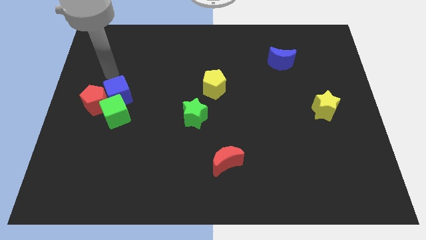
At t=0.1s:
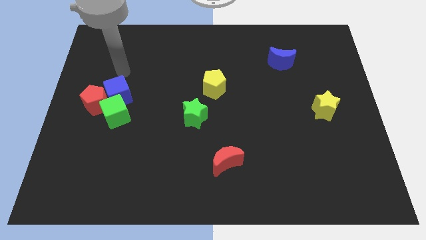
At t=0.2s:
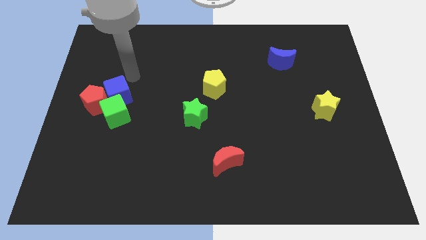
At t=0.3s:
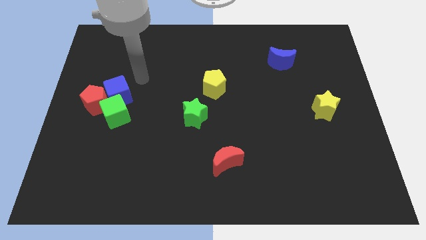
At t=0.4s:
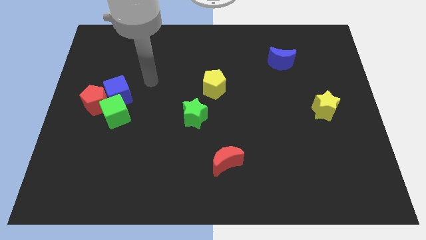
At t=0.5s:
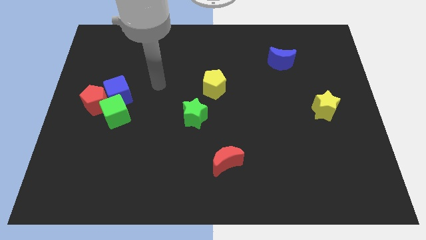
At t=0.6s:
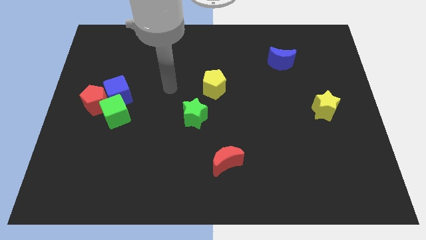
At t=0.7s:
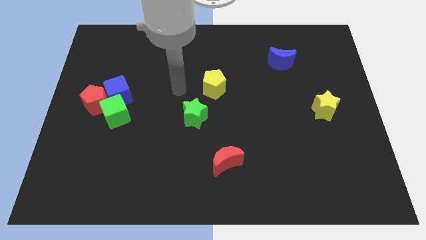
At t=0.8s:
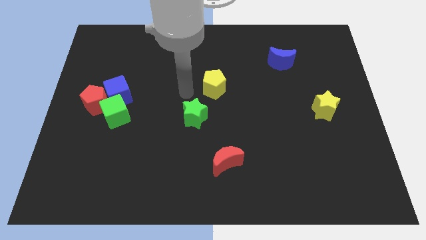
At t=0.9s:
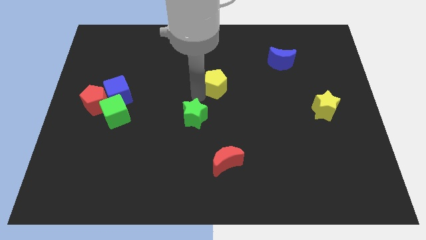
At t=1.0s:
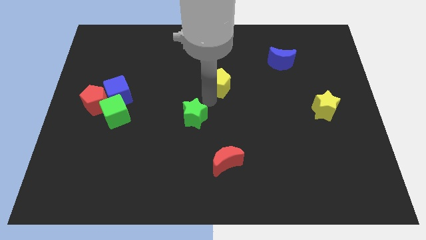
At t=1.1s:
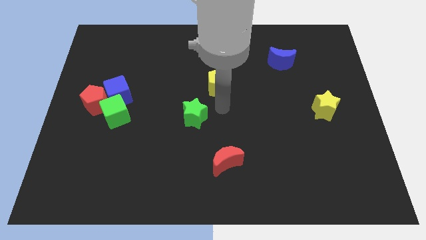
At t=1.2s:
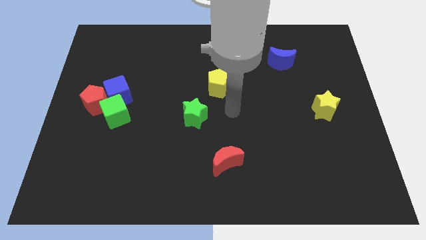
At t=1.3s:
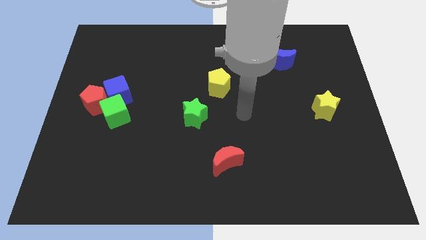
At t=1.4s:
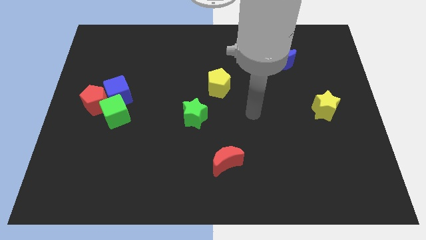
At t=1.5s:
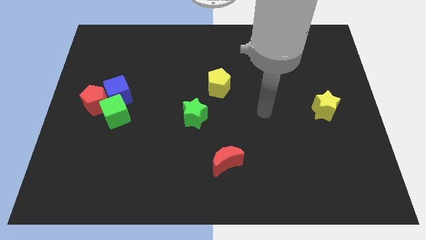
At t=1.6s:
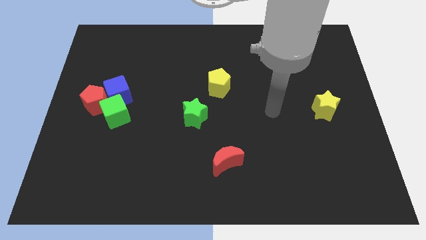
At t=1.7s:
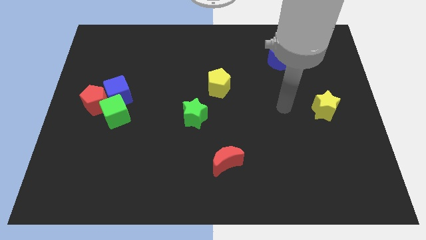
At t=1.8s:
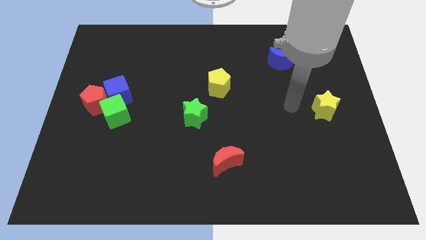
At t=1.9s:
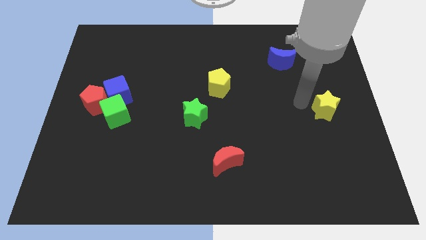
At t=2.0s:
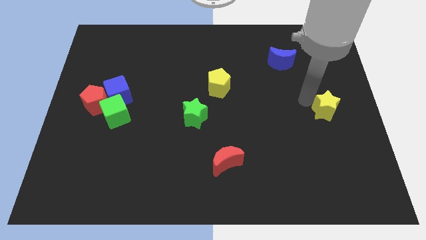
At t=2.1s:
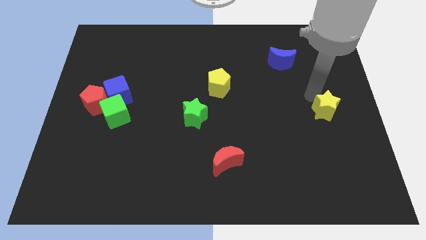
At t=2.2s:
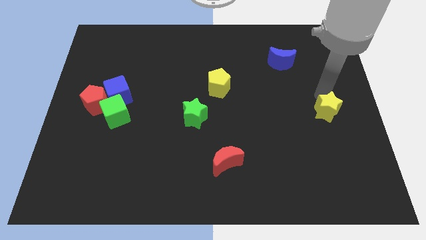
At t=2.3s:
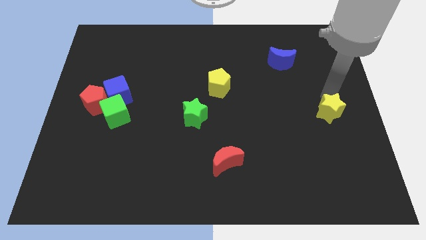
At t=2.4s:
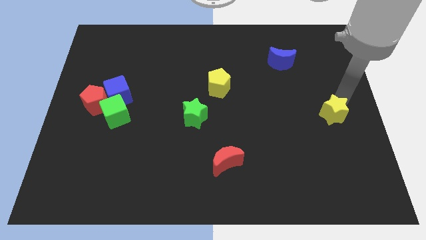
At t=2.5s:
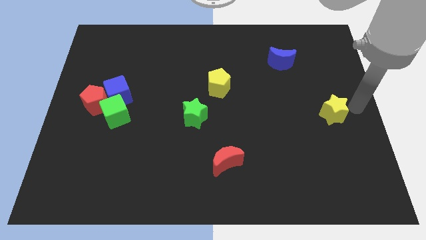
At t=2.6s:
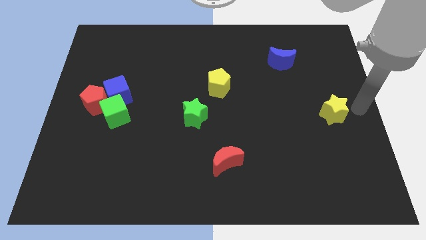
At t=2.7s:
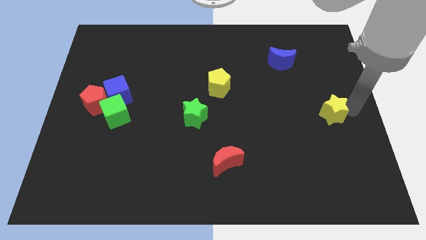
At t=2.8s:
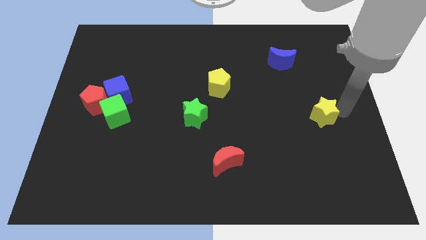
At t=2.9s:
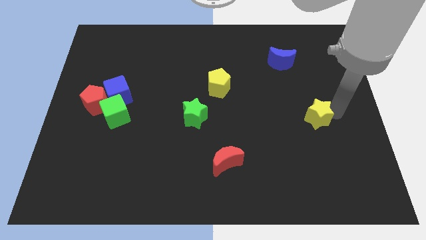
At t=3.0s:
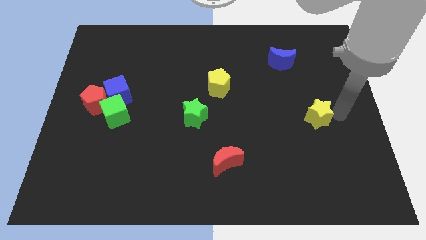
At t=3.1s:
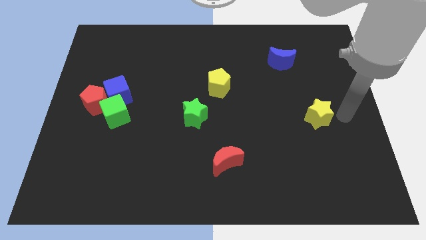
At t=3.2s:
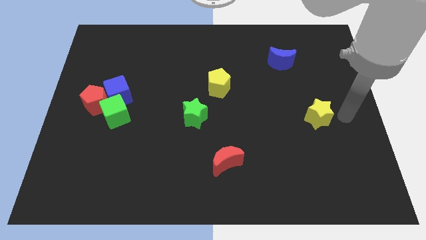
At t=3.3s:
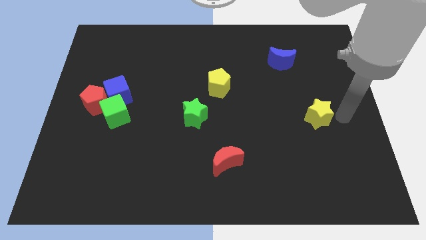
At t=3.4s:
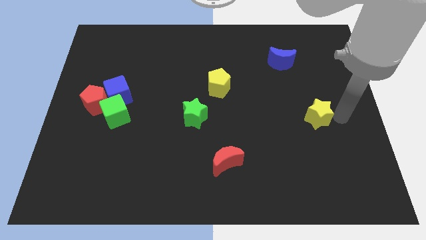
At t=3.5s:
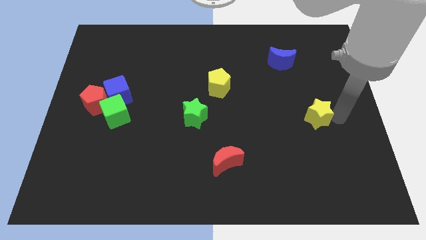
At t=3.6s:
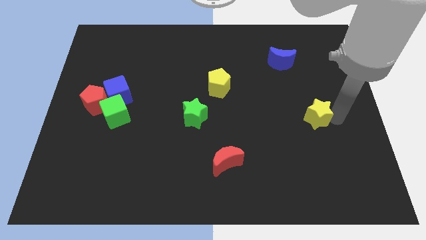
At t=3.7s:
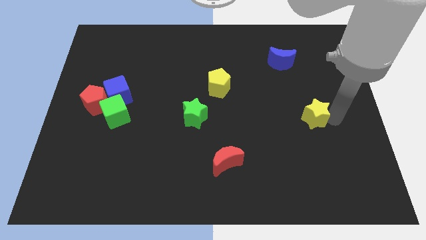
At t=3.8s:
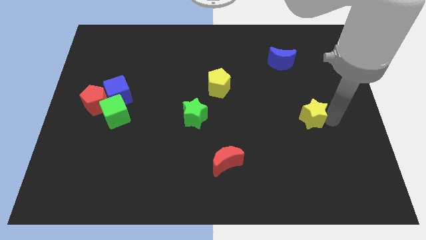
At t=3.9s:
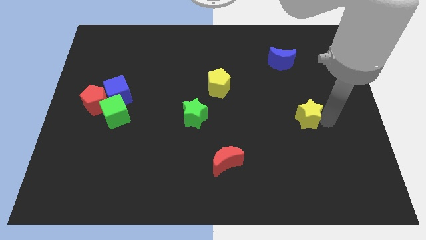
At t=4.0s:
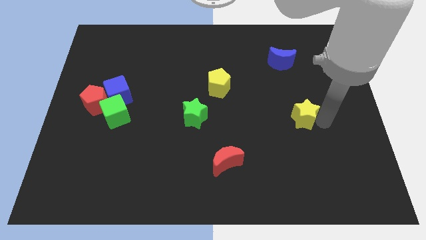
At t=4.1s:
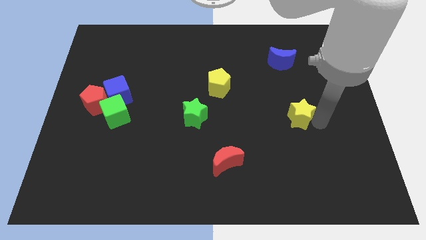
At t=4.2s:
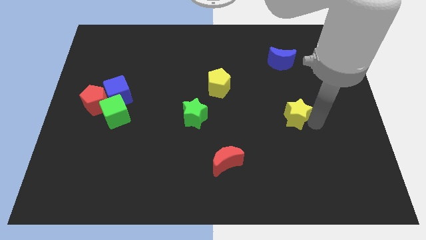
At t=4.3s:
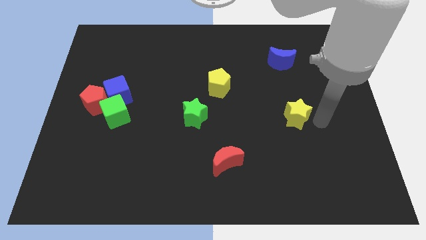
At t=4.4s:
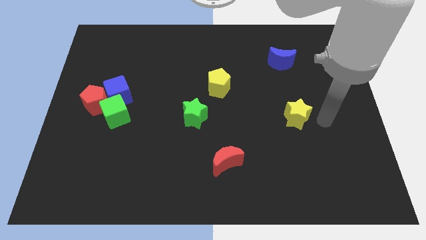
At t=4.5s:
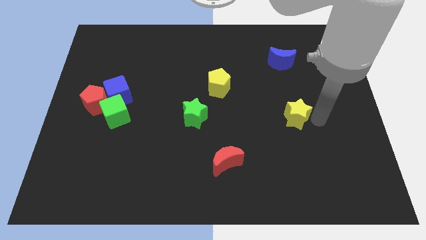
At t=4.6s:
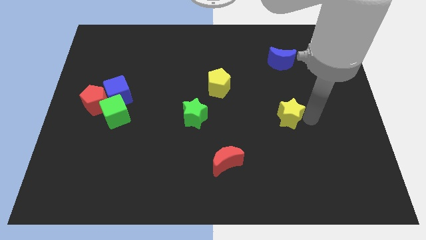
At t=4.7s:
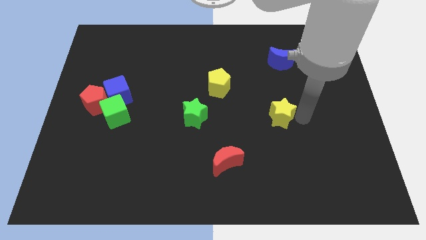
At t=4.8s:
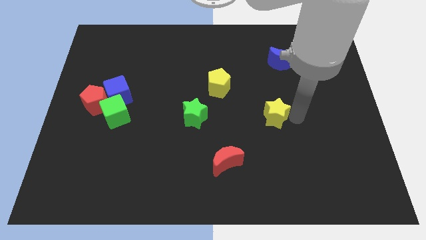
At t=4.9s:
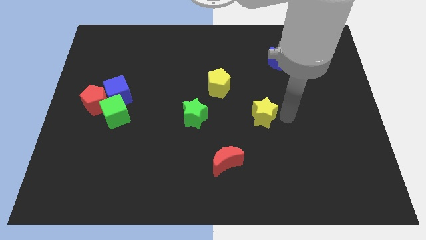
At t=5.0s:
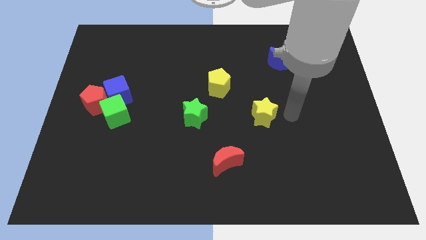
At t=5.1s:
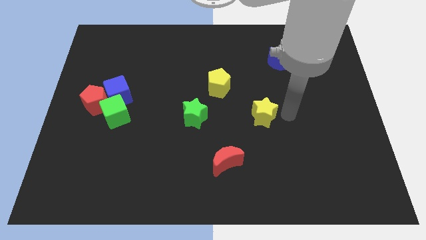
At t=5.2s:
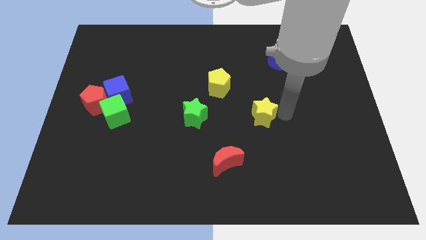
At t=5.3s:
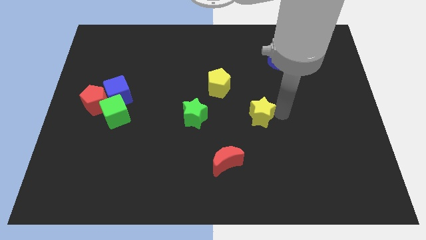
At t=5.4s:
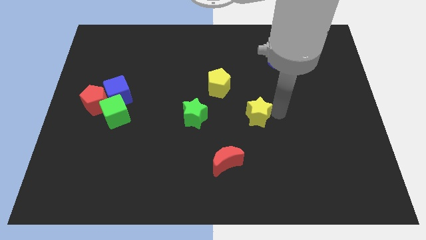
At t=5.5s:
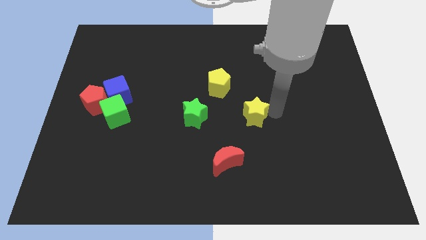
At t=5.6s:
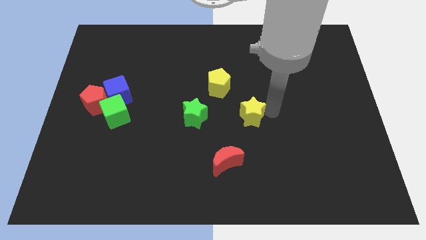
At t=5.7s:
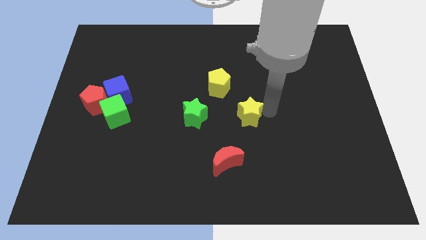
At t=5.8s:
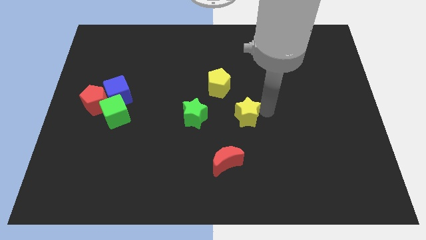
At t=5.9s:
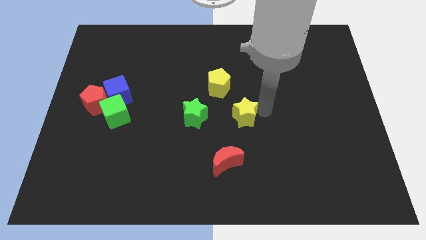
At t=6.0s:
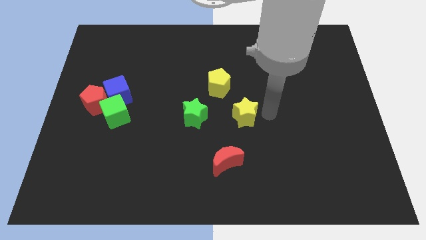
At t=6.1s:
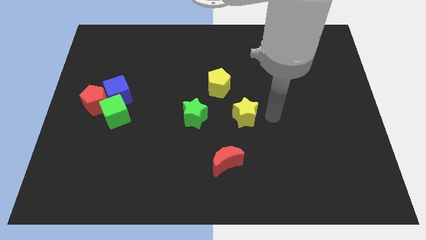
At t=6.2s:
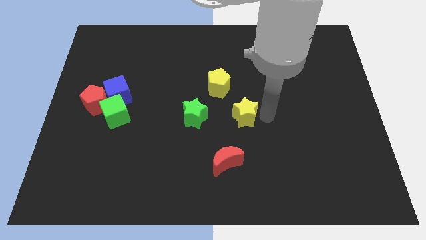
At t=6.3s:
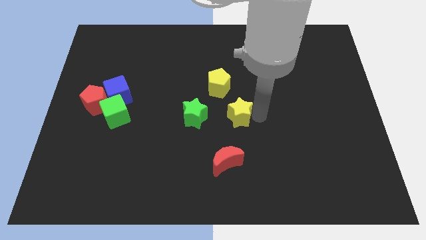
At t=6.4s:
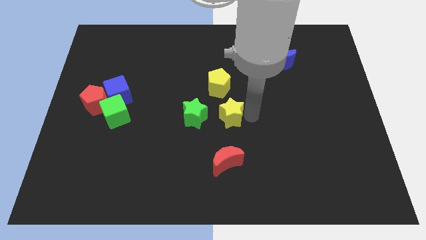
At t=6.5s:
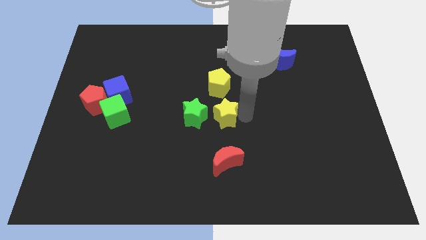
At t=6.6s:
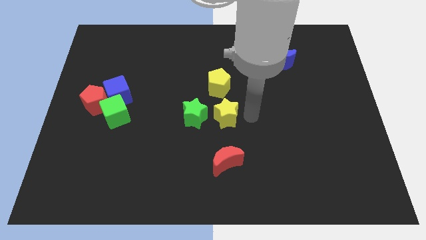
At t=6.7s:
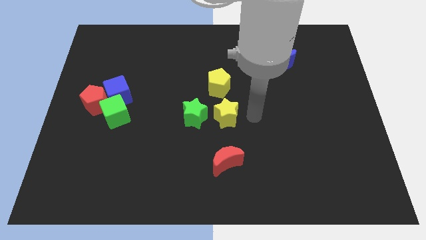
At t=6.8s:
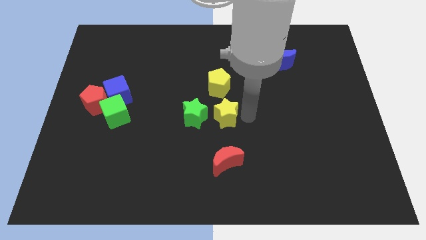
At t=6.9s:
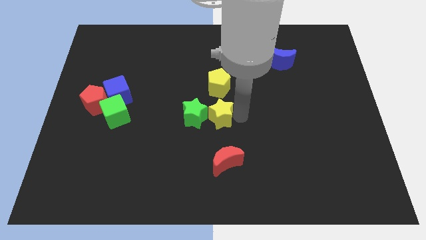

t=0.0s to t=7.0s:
move the yellow star next to the green star

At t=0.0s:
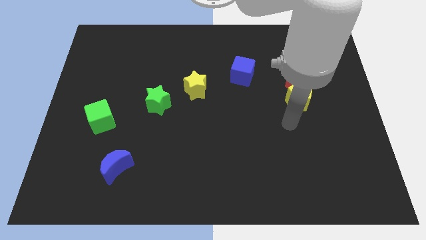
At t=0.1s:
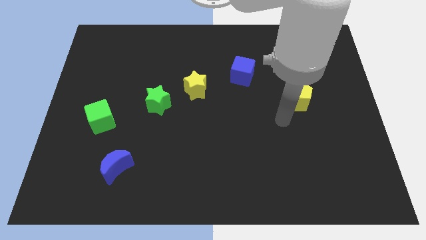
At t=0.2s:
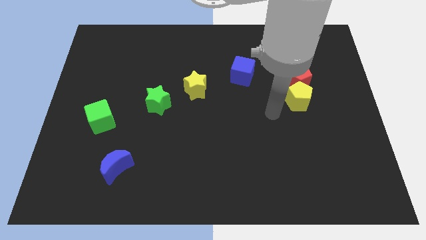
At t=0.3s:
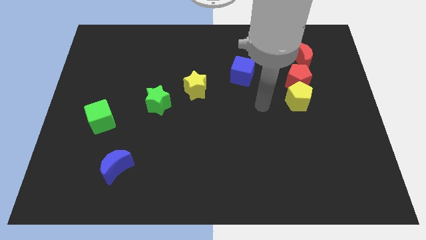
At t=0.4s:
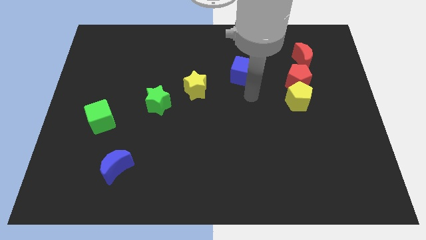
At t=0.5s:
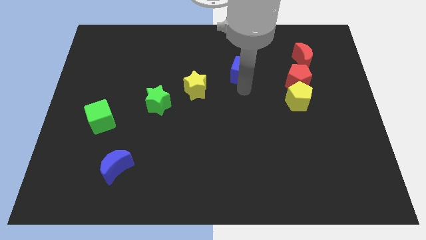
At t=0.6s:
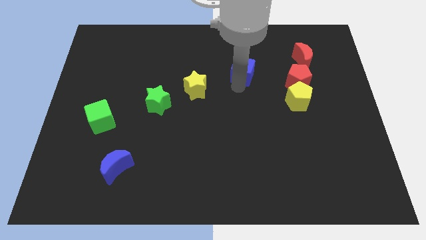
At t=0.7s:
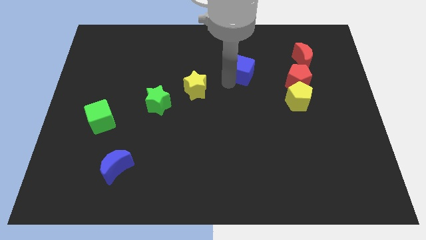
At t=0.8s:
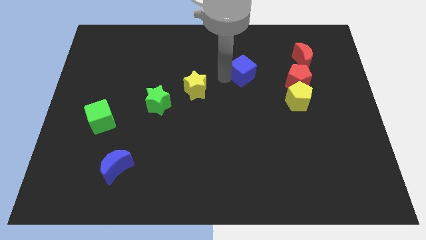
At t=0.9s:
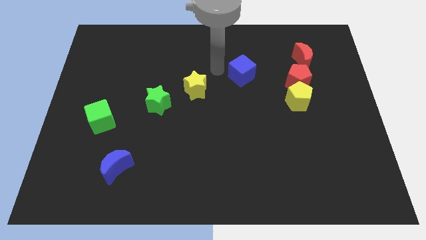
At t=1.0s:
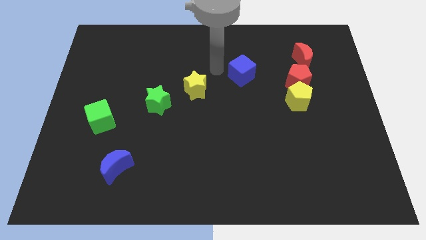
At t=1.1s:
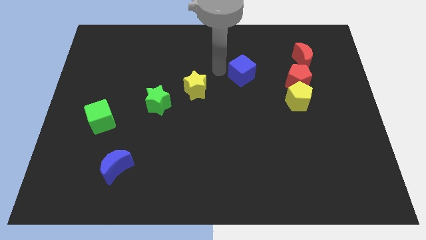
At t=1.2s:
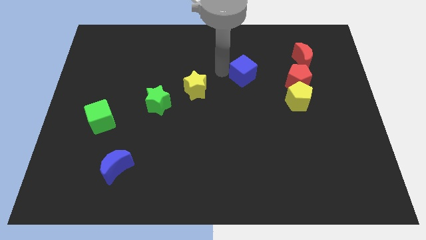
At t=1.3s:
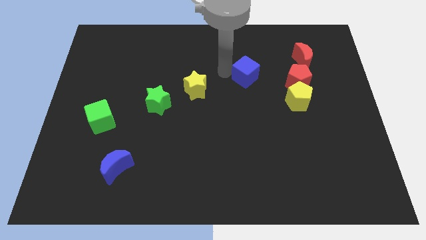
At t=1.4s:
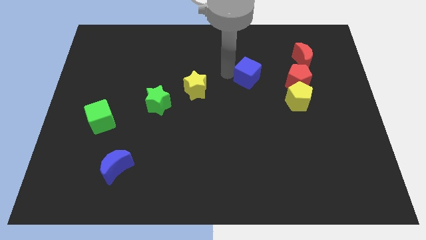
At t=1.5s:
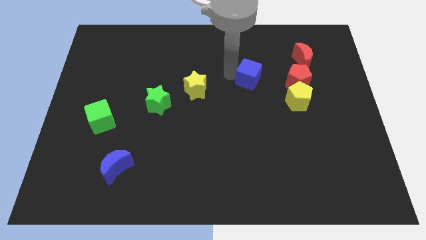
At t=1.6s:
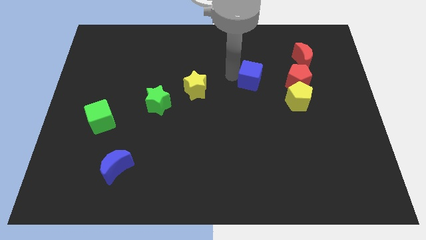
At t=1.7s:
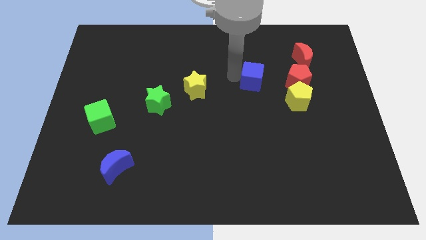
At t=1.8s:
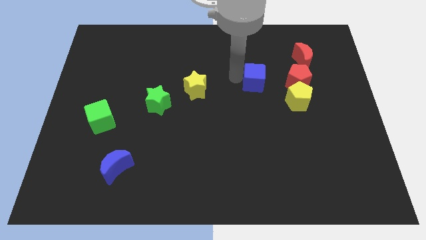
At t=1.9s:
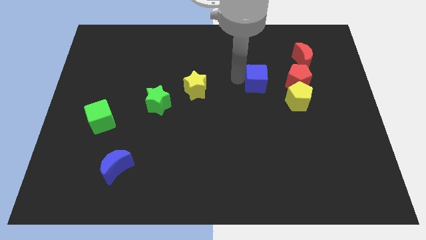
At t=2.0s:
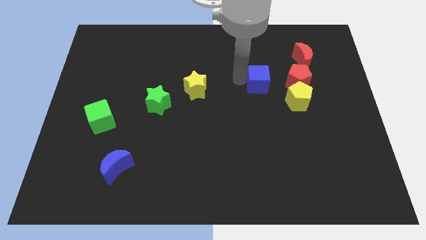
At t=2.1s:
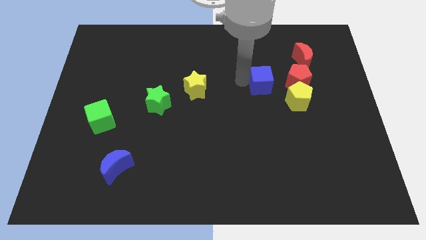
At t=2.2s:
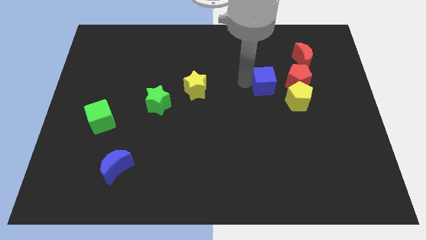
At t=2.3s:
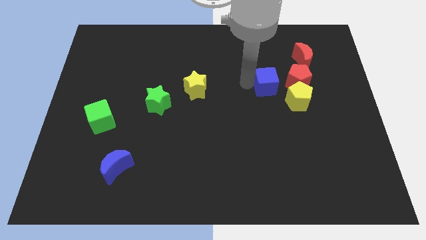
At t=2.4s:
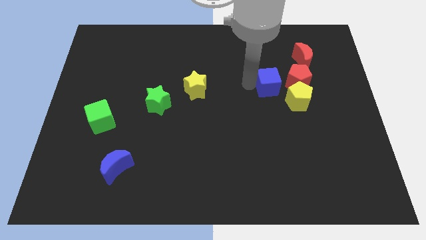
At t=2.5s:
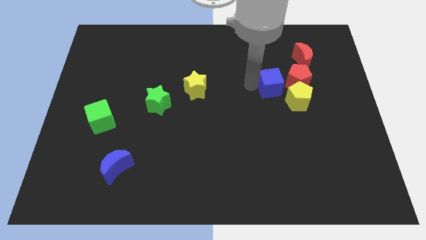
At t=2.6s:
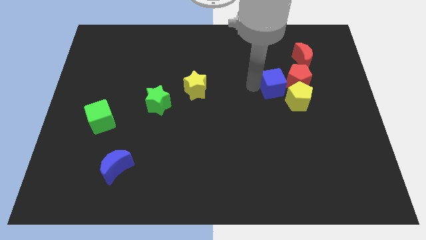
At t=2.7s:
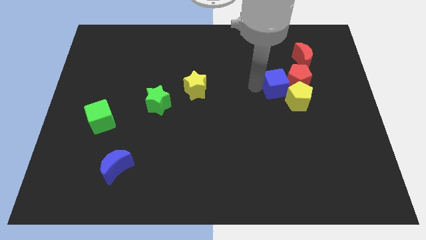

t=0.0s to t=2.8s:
put the blue cube towards the red pentagon
